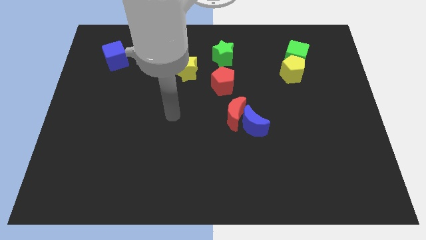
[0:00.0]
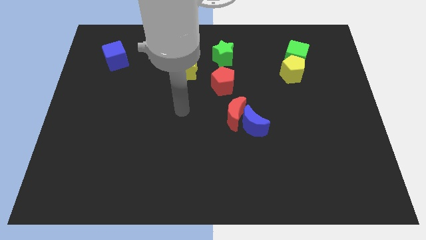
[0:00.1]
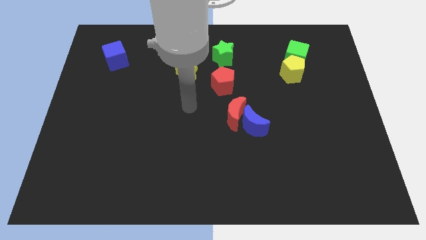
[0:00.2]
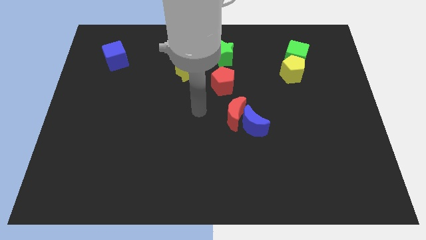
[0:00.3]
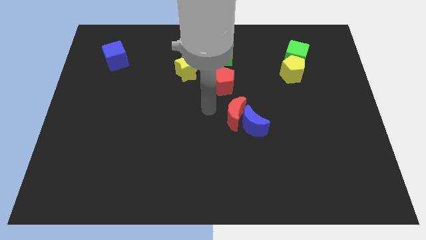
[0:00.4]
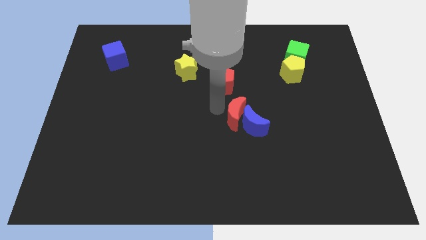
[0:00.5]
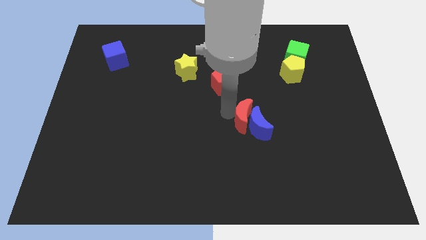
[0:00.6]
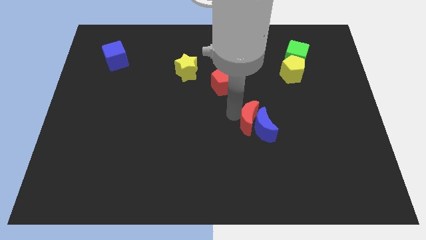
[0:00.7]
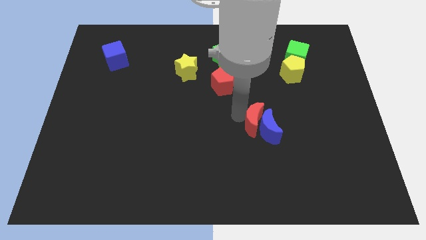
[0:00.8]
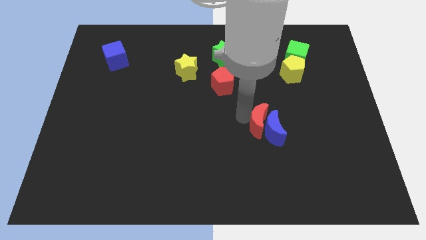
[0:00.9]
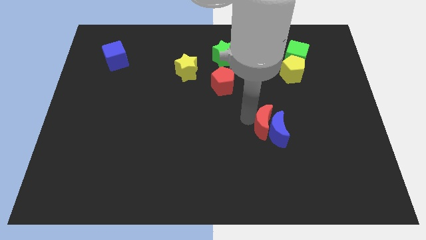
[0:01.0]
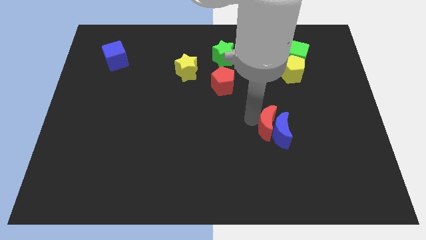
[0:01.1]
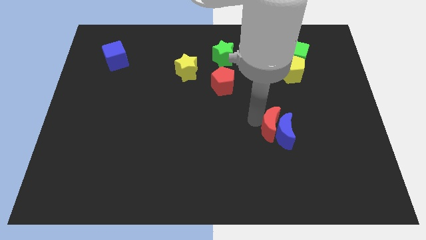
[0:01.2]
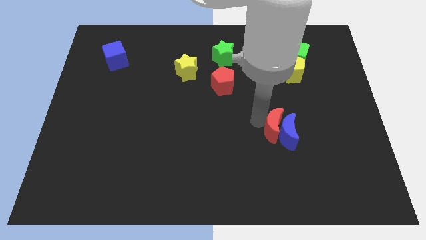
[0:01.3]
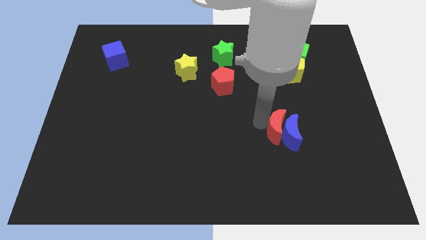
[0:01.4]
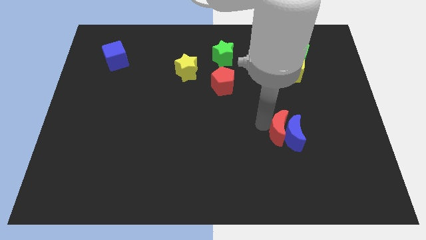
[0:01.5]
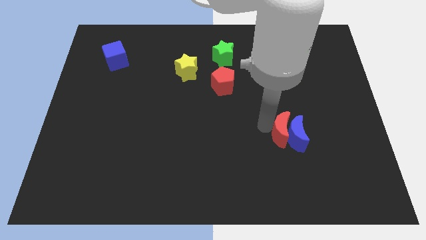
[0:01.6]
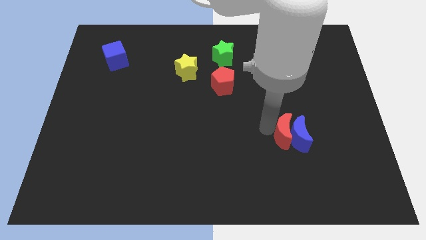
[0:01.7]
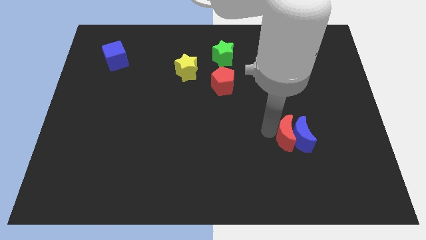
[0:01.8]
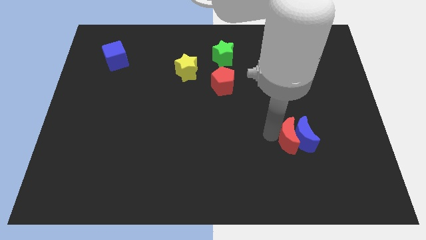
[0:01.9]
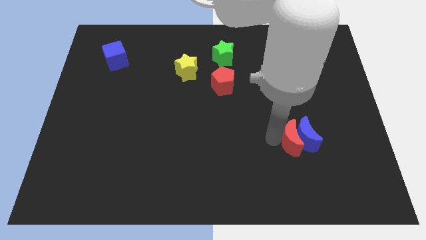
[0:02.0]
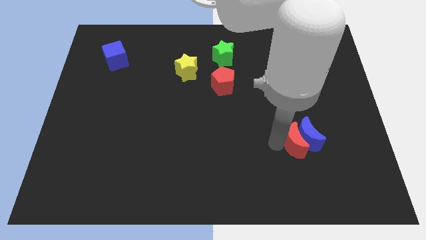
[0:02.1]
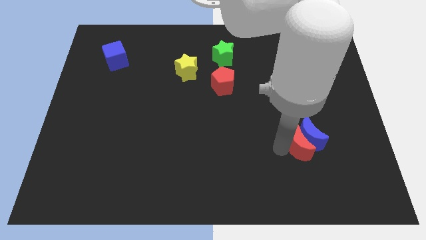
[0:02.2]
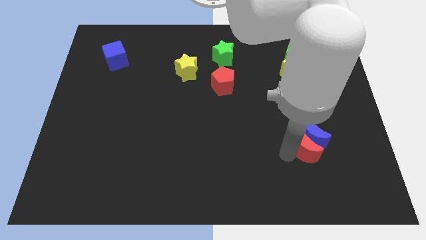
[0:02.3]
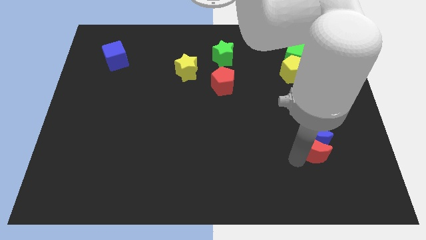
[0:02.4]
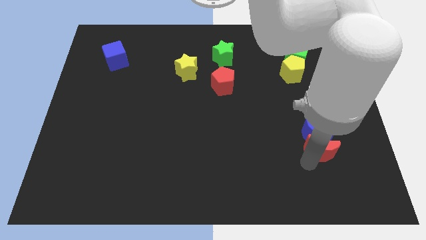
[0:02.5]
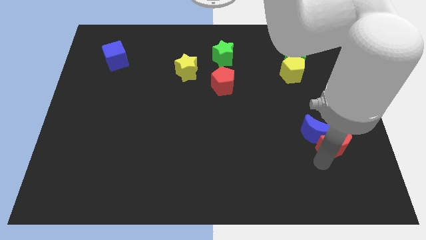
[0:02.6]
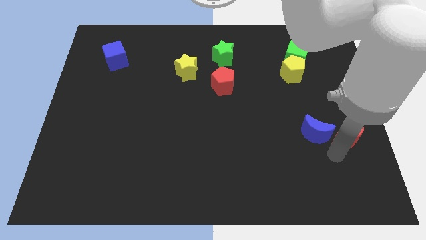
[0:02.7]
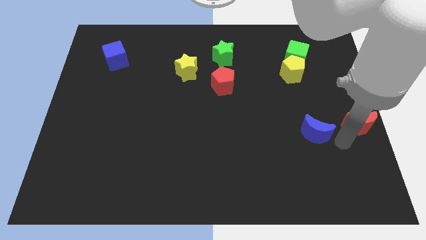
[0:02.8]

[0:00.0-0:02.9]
pull the blue moon apart from the red moon

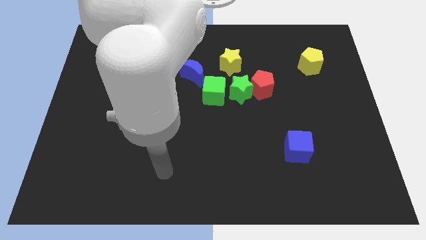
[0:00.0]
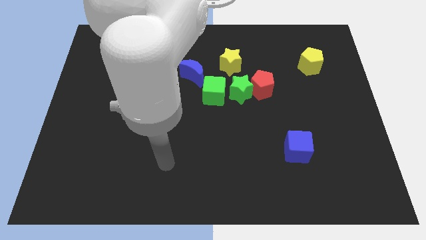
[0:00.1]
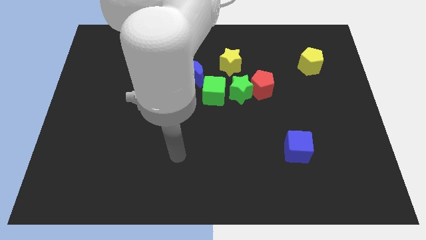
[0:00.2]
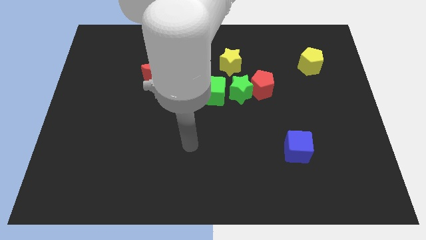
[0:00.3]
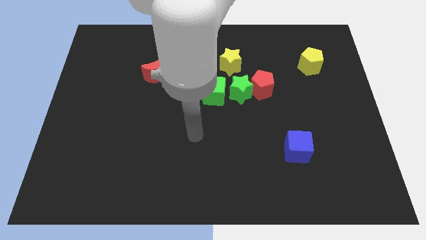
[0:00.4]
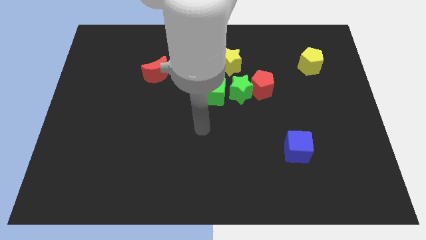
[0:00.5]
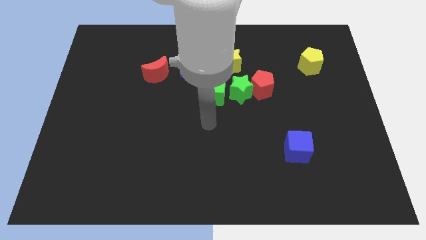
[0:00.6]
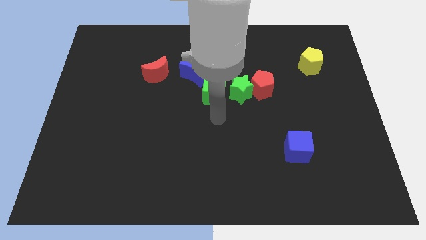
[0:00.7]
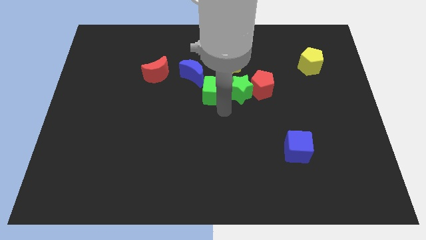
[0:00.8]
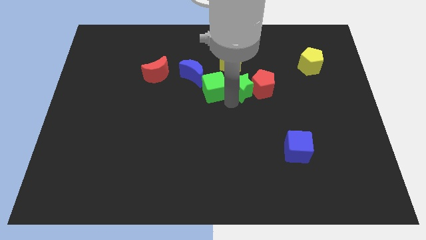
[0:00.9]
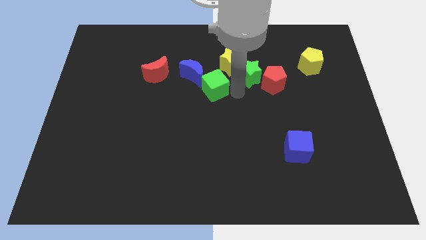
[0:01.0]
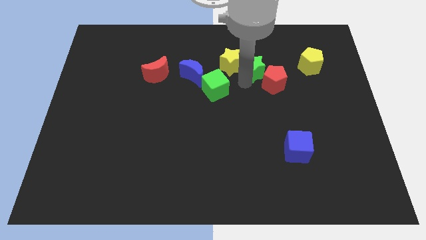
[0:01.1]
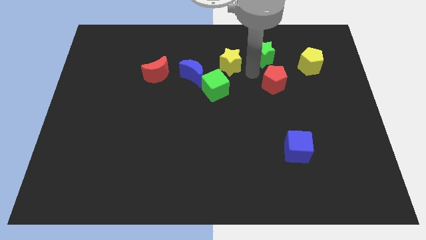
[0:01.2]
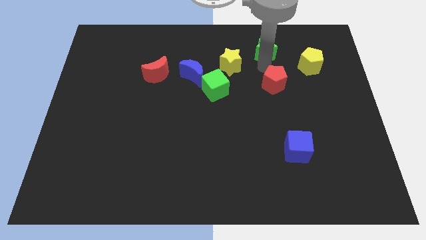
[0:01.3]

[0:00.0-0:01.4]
separate the red pentagon from the green star

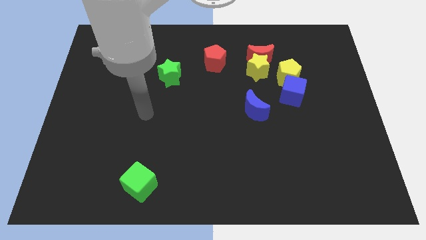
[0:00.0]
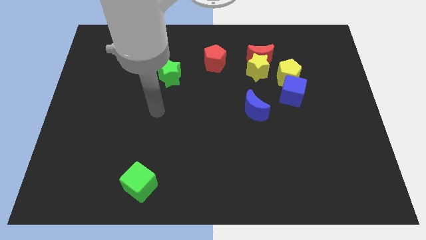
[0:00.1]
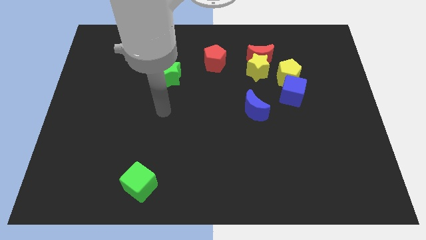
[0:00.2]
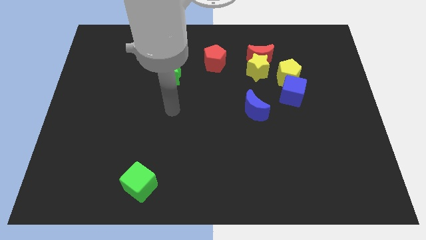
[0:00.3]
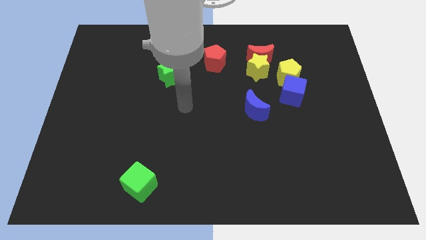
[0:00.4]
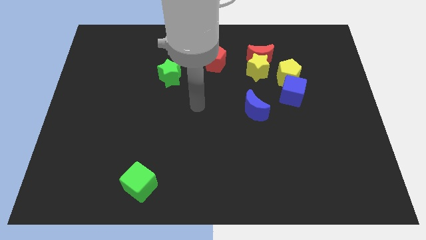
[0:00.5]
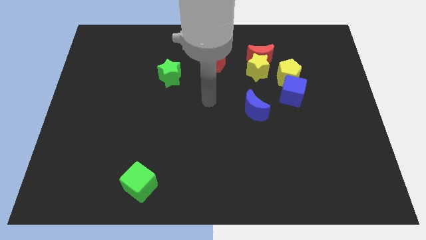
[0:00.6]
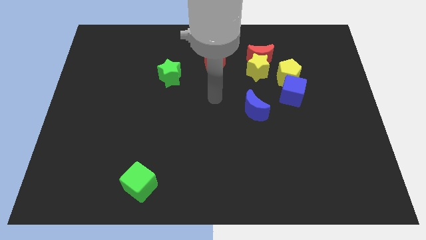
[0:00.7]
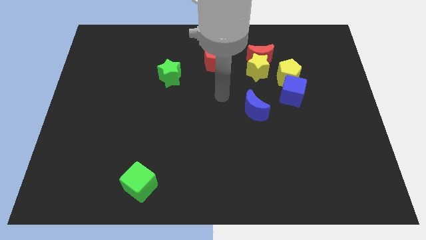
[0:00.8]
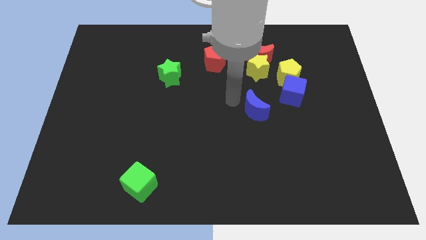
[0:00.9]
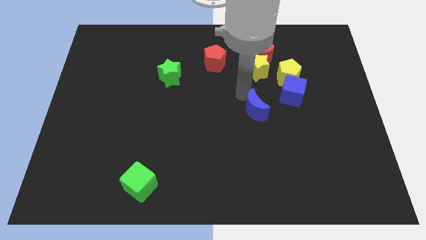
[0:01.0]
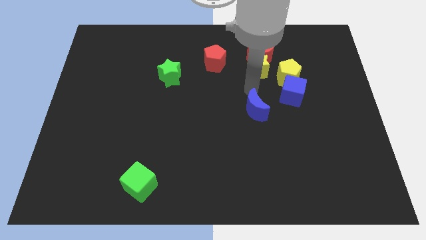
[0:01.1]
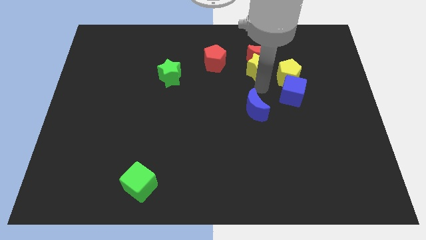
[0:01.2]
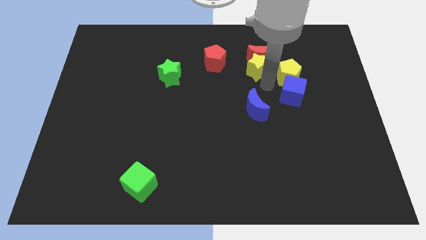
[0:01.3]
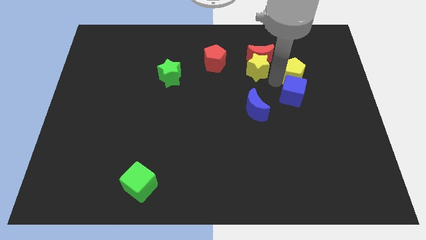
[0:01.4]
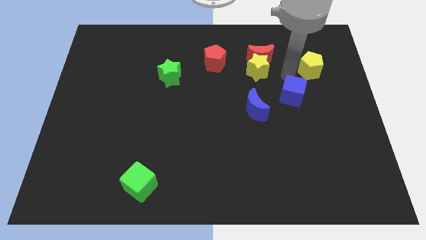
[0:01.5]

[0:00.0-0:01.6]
move the blue cube away from the yellow pentagon

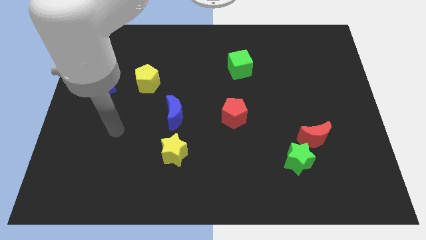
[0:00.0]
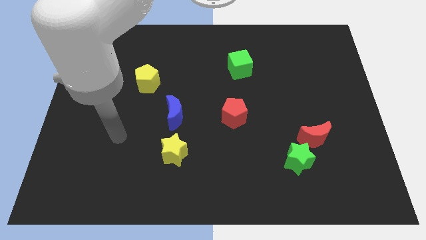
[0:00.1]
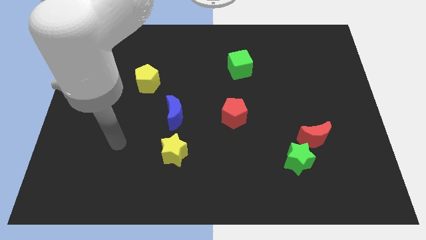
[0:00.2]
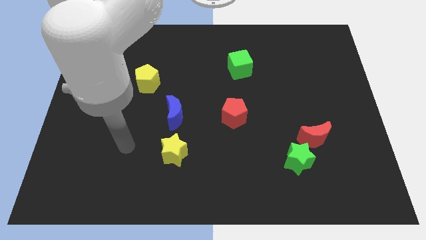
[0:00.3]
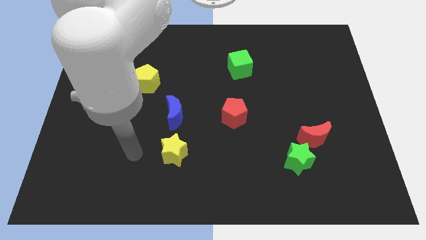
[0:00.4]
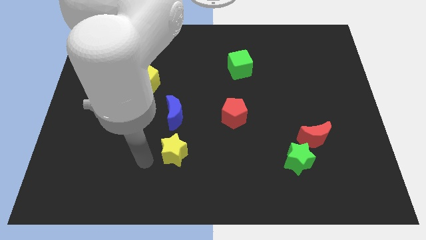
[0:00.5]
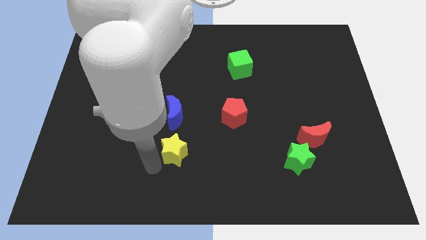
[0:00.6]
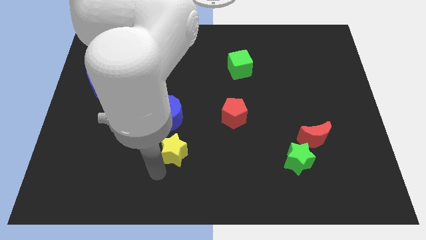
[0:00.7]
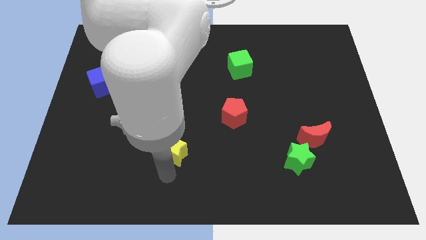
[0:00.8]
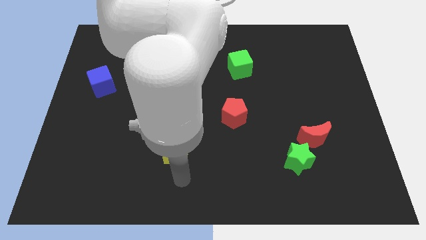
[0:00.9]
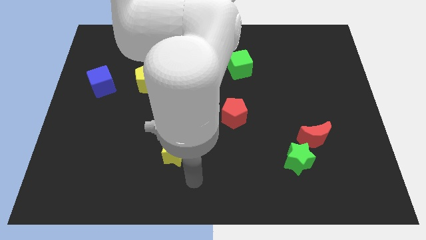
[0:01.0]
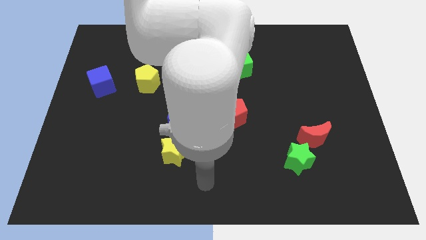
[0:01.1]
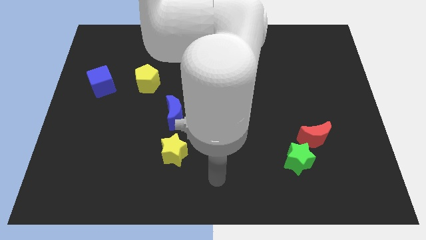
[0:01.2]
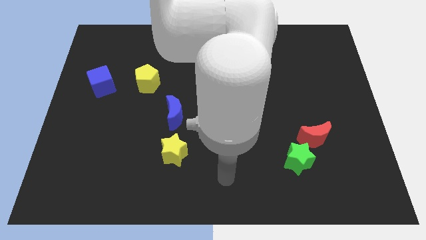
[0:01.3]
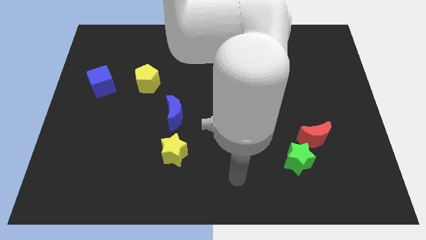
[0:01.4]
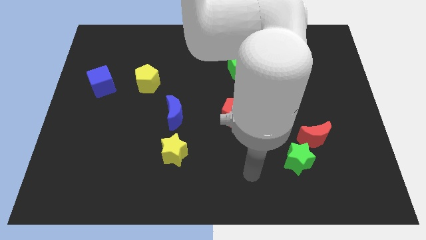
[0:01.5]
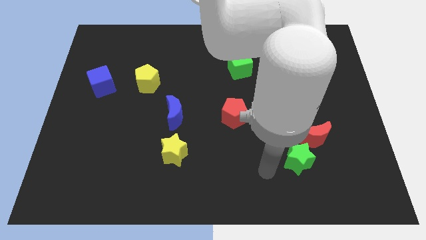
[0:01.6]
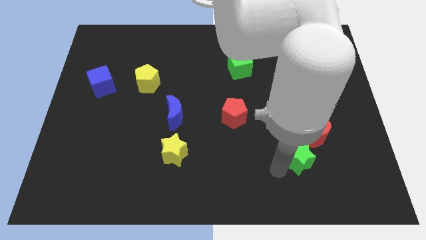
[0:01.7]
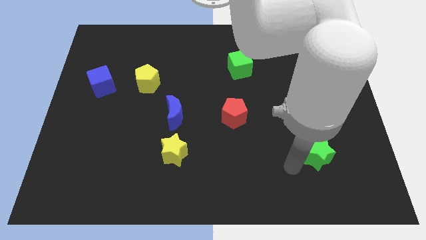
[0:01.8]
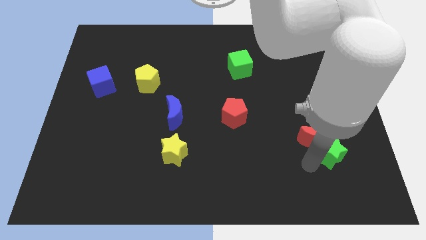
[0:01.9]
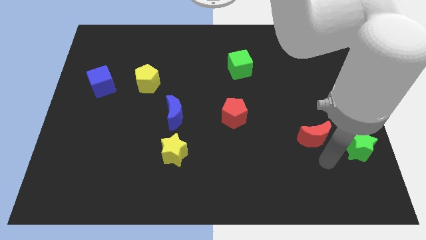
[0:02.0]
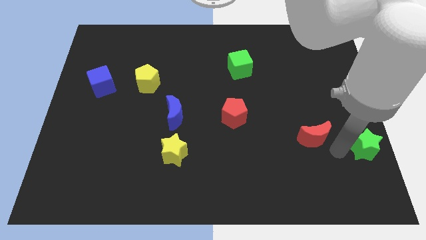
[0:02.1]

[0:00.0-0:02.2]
move the red moon away from the green star

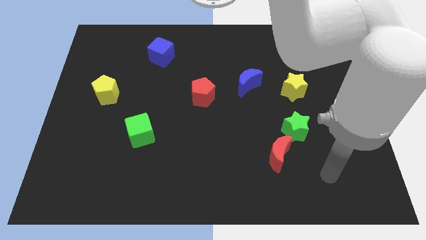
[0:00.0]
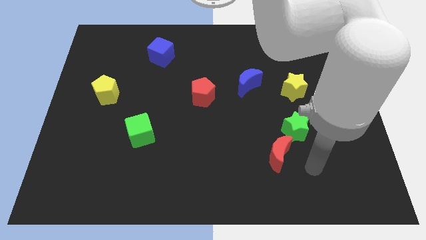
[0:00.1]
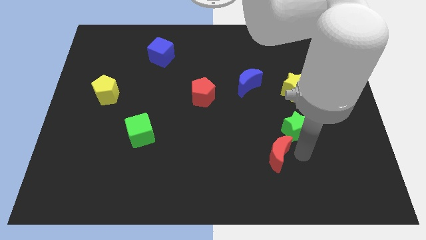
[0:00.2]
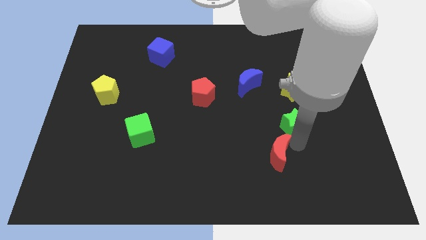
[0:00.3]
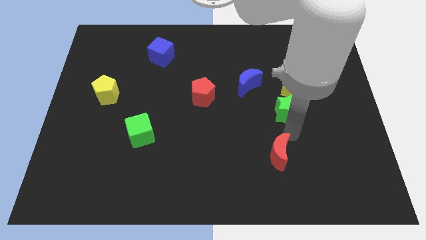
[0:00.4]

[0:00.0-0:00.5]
separate the red moon from the green star

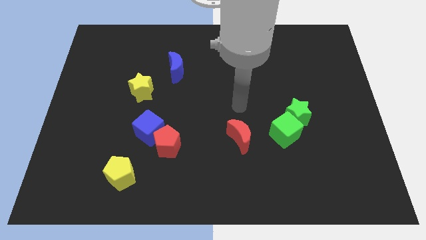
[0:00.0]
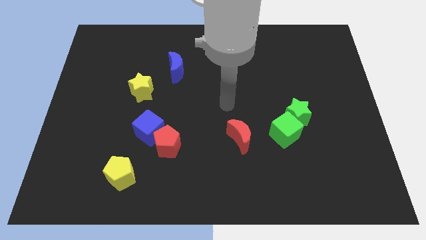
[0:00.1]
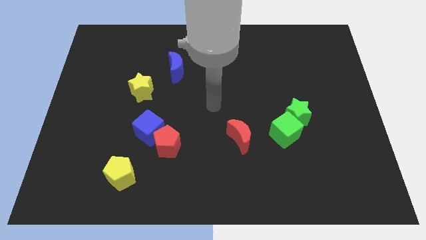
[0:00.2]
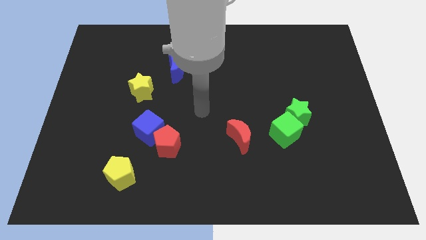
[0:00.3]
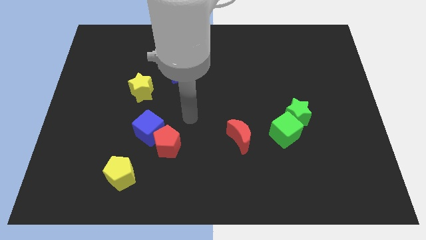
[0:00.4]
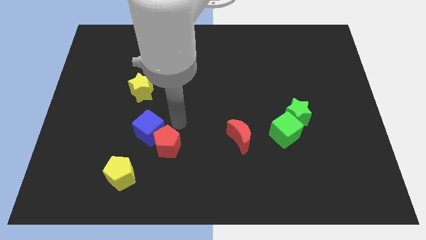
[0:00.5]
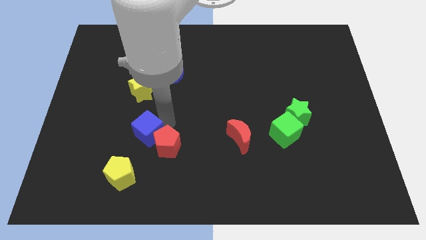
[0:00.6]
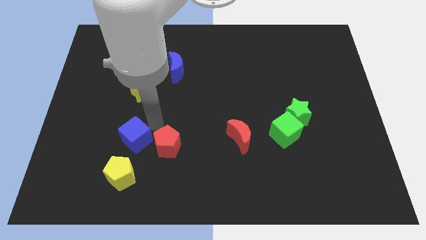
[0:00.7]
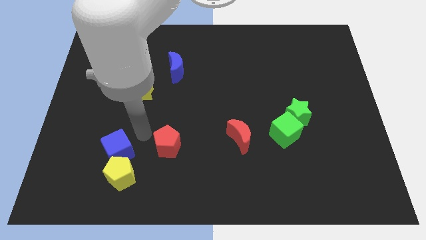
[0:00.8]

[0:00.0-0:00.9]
separate the red pentagon from the blue cube

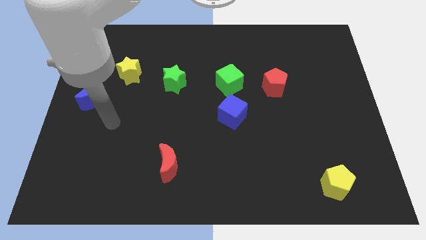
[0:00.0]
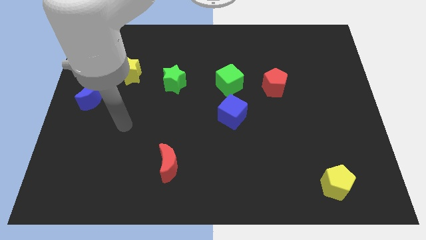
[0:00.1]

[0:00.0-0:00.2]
pull the blue cube apart from the green cube
